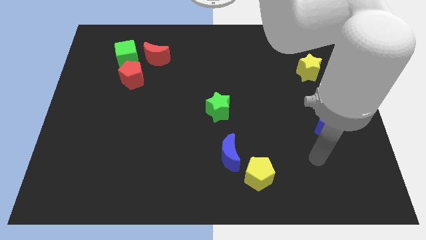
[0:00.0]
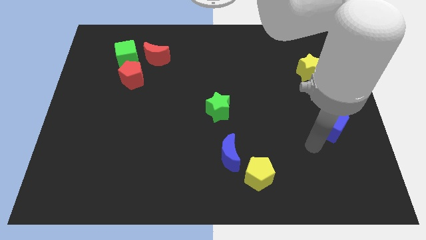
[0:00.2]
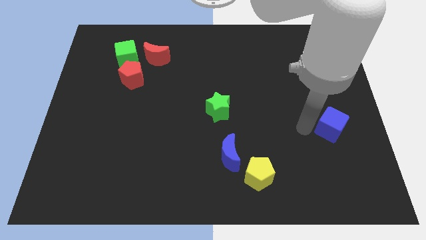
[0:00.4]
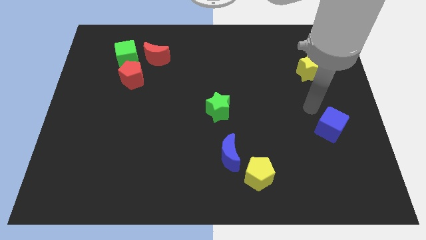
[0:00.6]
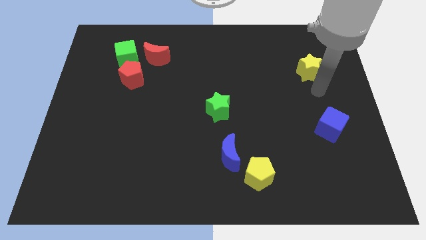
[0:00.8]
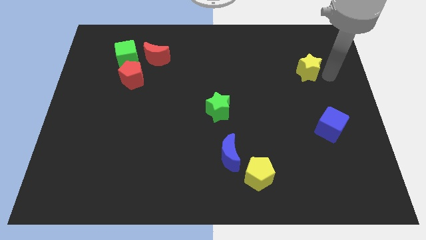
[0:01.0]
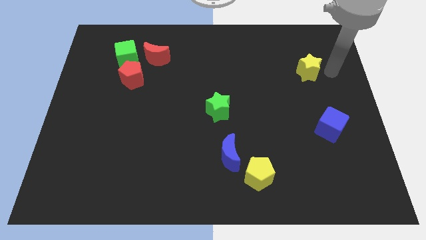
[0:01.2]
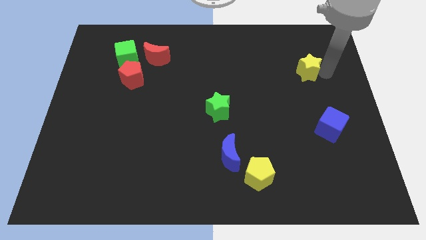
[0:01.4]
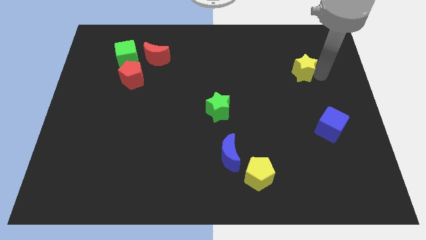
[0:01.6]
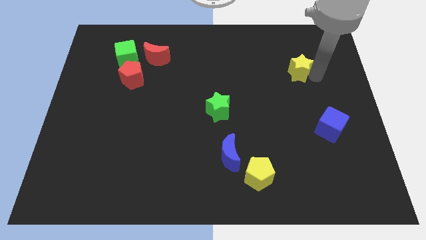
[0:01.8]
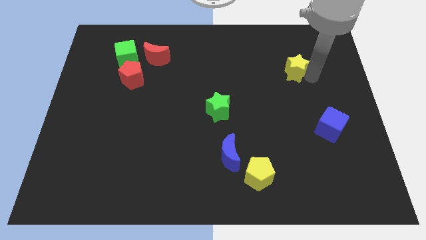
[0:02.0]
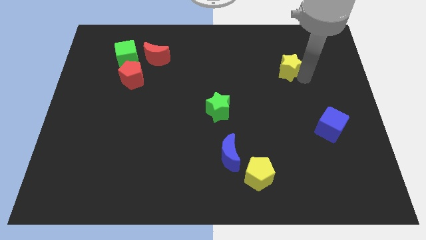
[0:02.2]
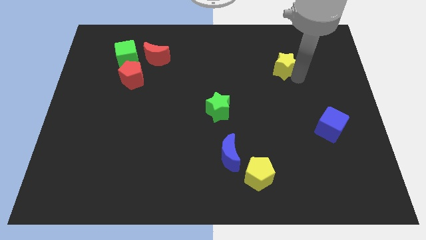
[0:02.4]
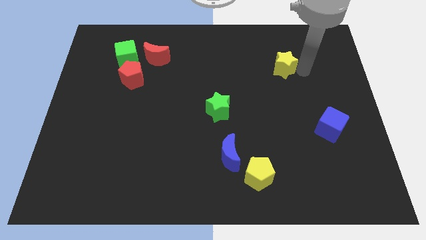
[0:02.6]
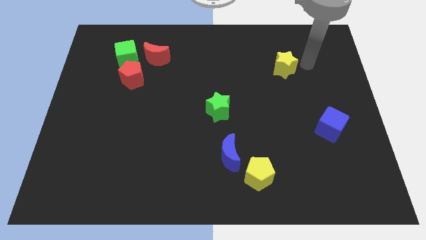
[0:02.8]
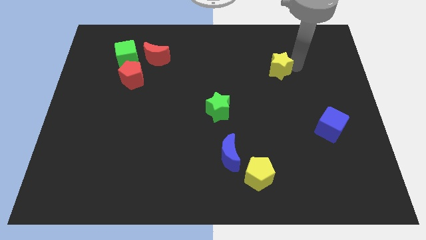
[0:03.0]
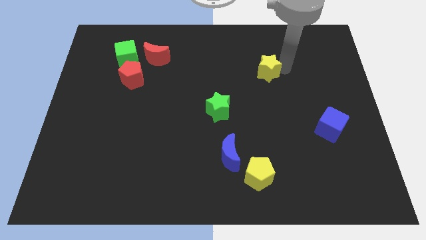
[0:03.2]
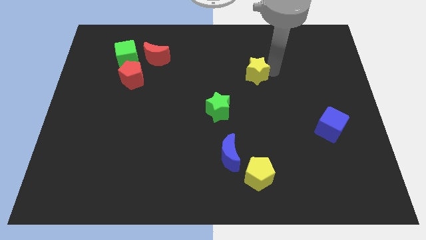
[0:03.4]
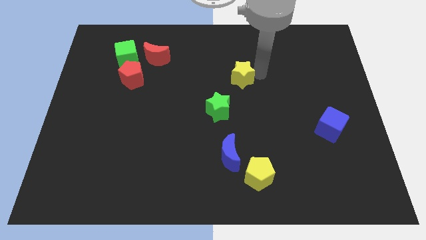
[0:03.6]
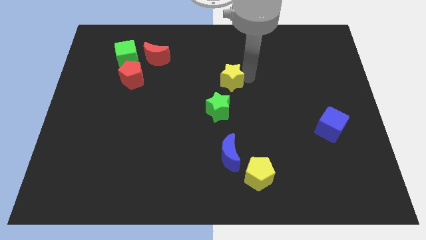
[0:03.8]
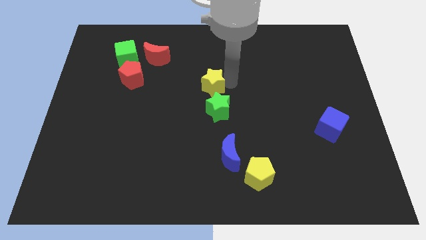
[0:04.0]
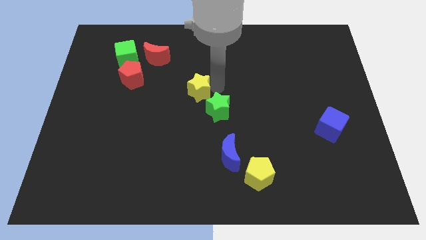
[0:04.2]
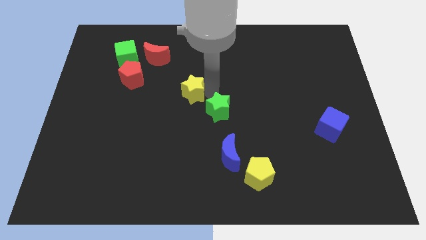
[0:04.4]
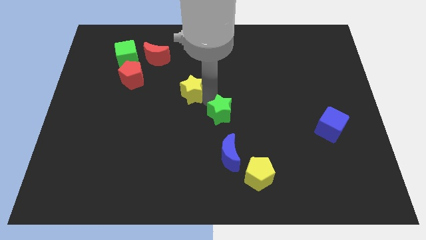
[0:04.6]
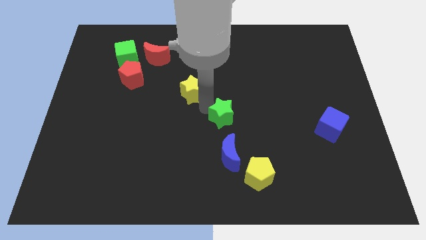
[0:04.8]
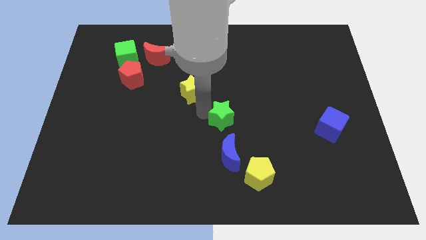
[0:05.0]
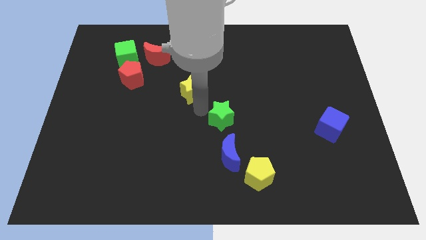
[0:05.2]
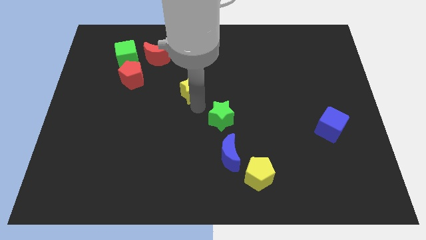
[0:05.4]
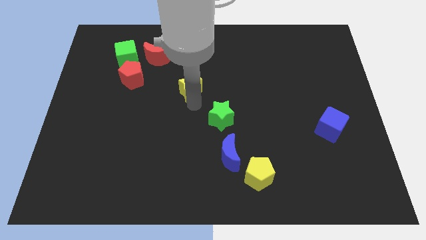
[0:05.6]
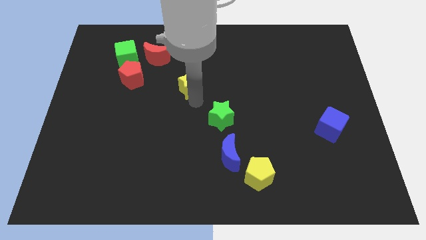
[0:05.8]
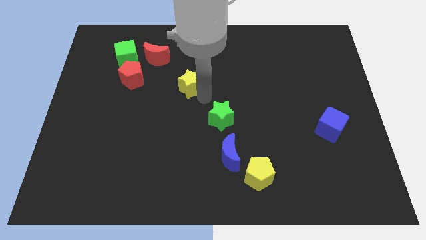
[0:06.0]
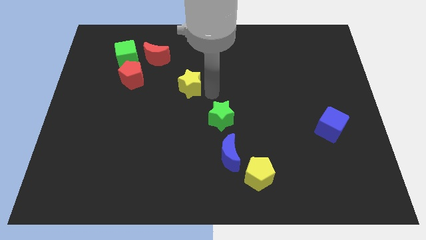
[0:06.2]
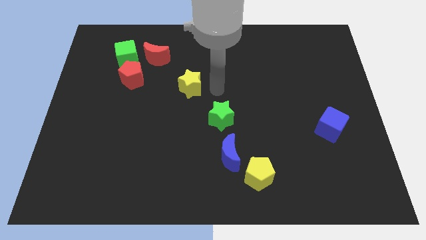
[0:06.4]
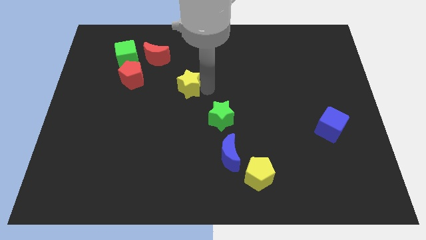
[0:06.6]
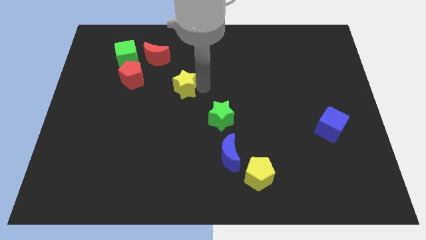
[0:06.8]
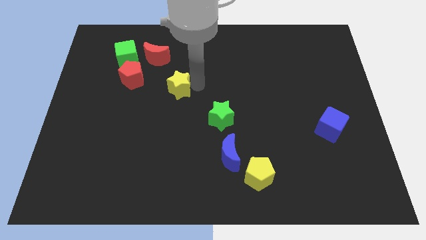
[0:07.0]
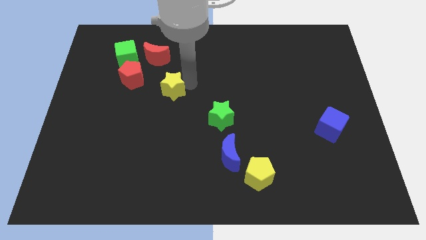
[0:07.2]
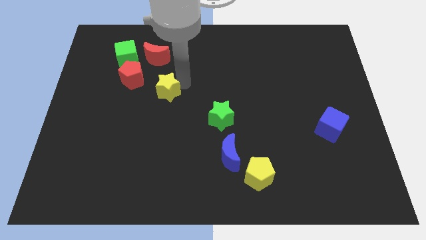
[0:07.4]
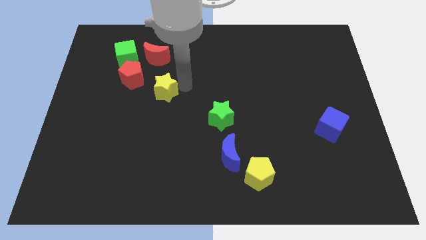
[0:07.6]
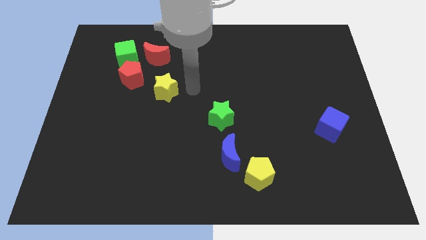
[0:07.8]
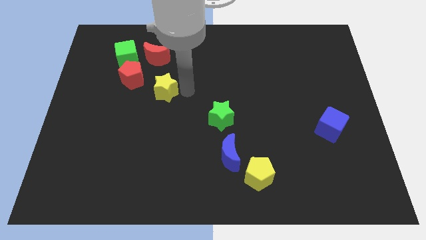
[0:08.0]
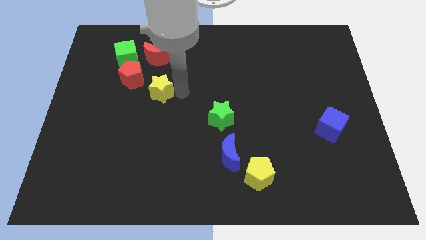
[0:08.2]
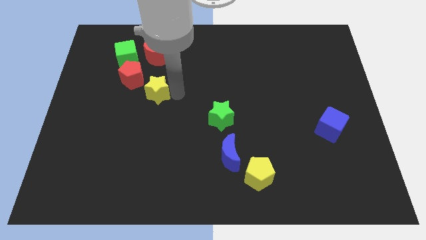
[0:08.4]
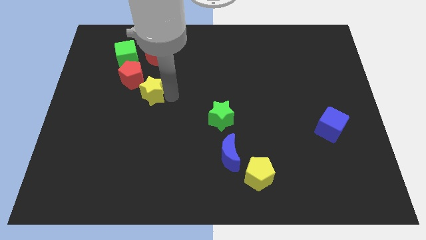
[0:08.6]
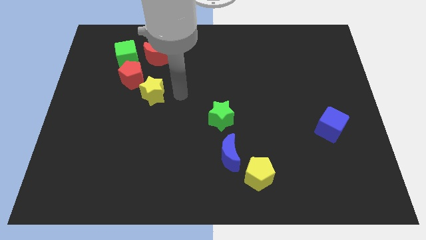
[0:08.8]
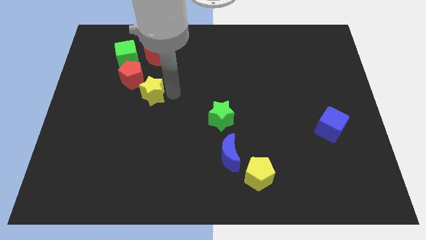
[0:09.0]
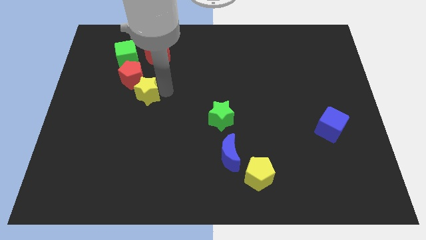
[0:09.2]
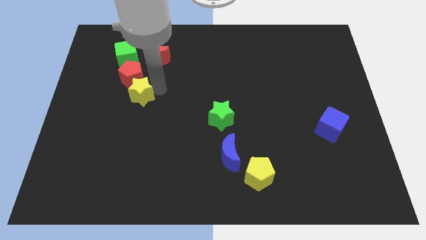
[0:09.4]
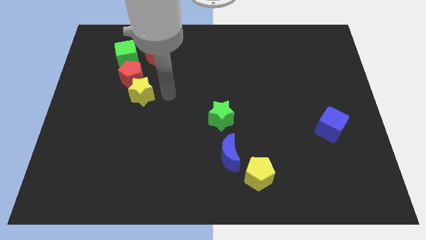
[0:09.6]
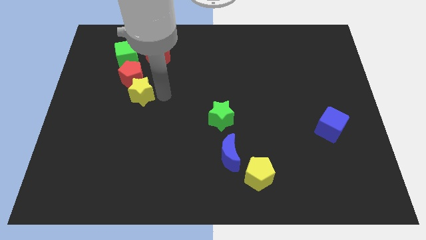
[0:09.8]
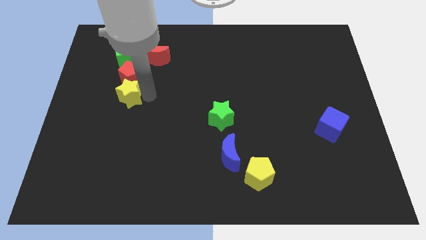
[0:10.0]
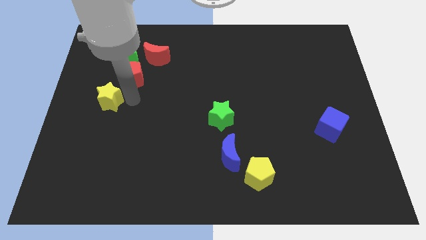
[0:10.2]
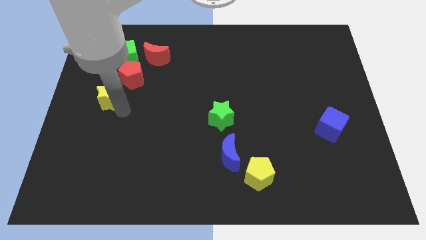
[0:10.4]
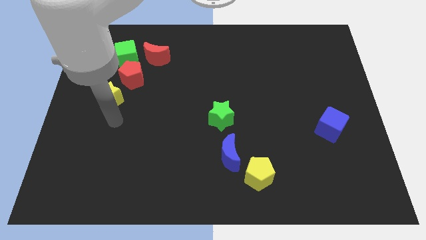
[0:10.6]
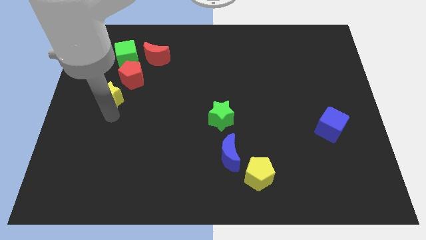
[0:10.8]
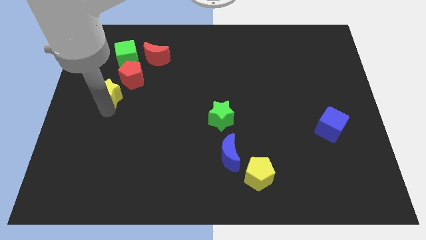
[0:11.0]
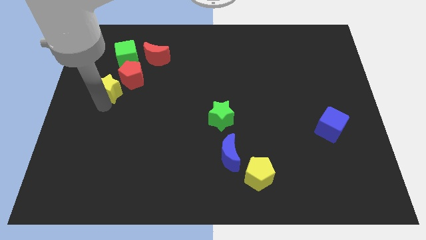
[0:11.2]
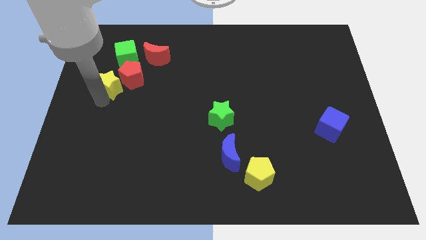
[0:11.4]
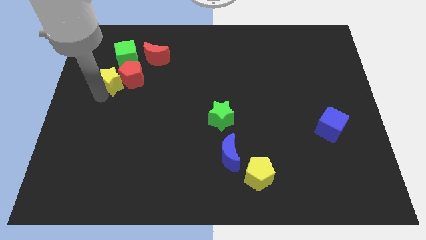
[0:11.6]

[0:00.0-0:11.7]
move the yellow star to the bottom left of the green cube

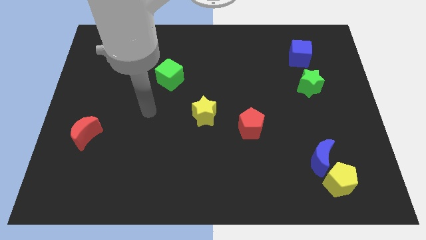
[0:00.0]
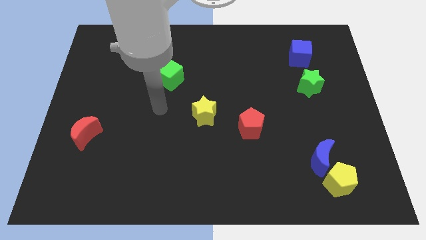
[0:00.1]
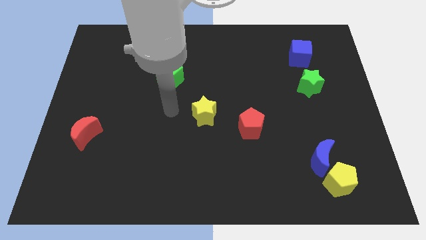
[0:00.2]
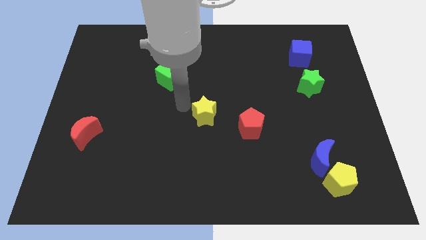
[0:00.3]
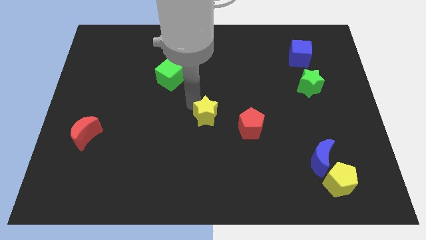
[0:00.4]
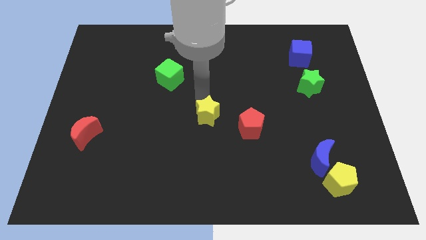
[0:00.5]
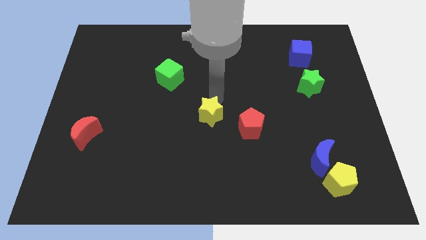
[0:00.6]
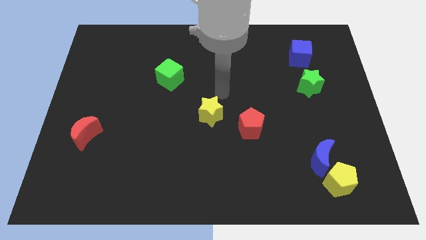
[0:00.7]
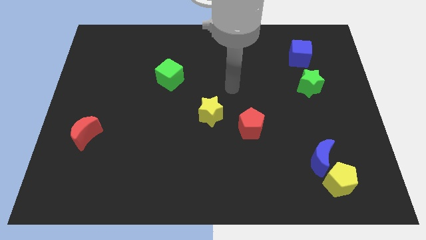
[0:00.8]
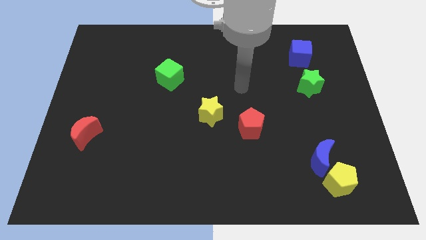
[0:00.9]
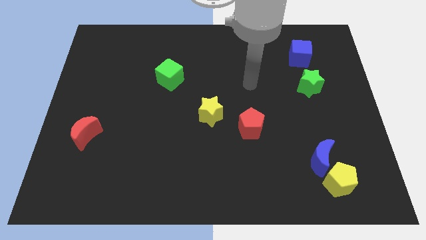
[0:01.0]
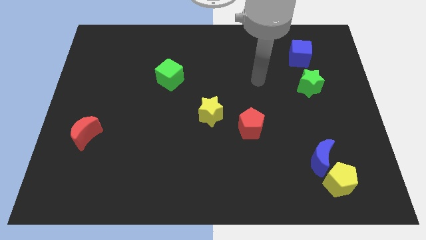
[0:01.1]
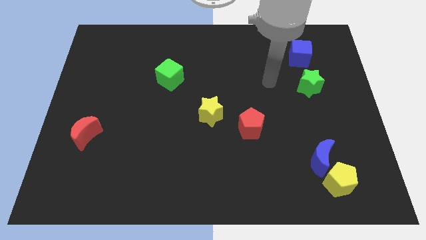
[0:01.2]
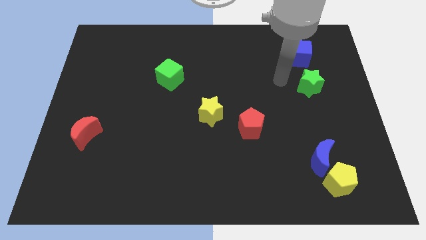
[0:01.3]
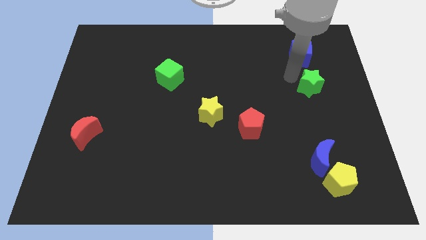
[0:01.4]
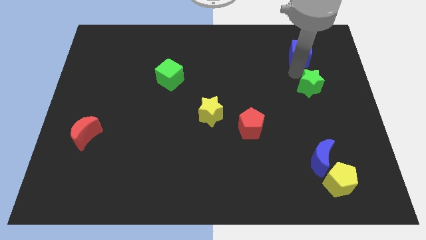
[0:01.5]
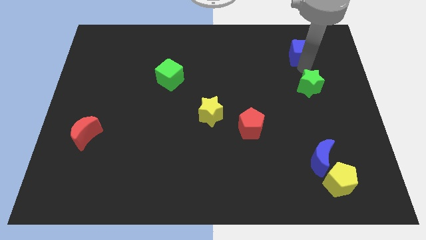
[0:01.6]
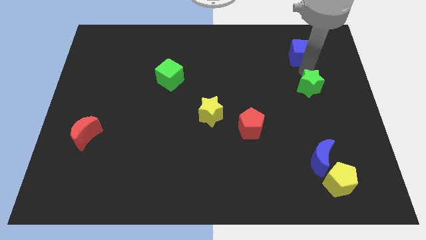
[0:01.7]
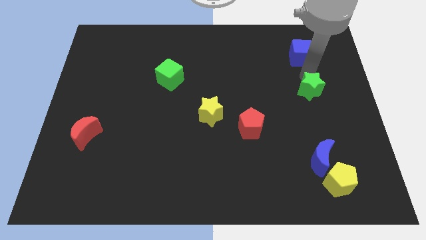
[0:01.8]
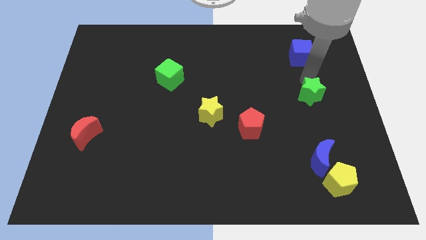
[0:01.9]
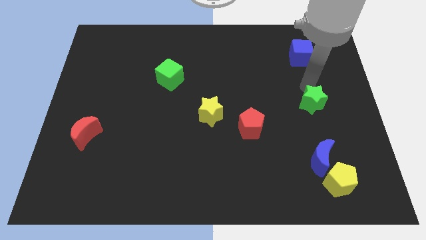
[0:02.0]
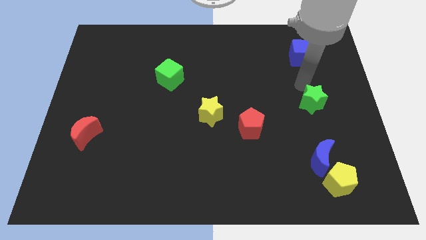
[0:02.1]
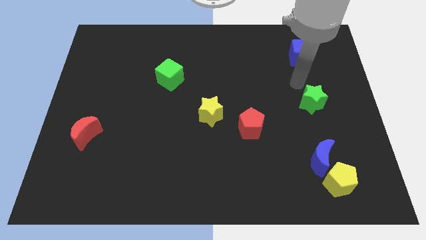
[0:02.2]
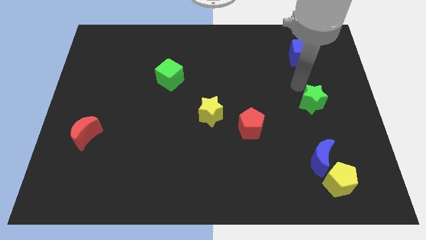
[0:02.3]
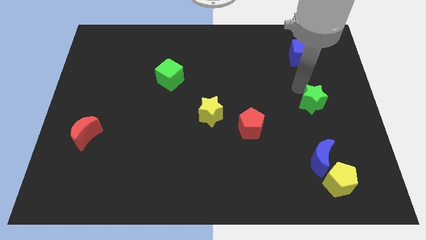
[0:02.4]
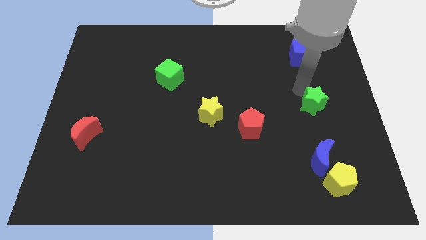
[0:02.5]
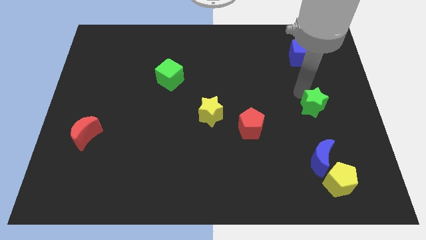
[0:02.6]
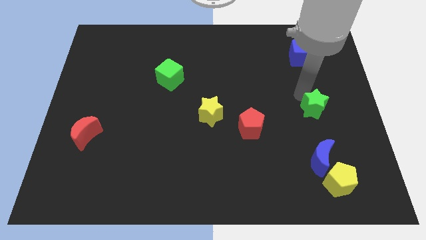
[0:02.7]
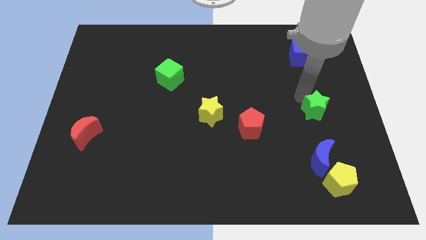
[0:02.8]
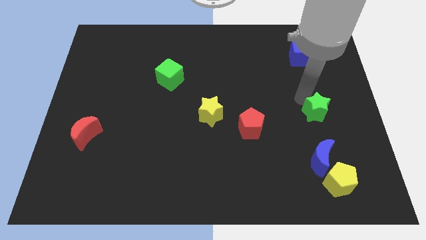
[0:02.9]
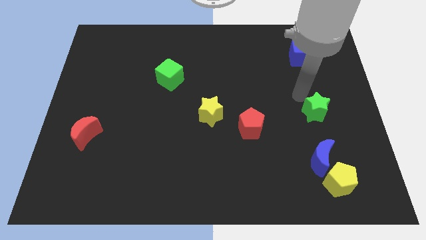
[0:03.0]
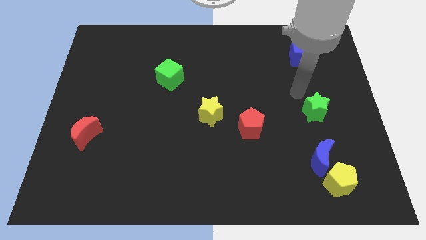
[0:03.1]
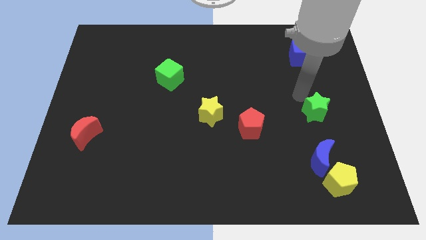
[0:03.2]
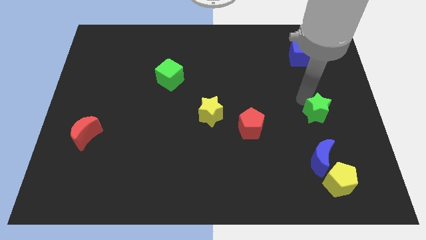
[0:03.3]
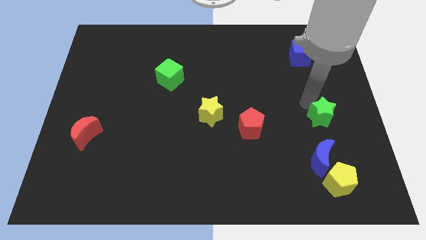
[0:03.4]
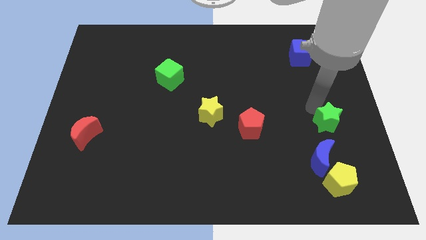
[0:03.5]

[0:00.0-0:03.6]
push the green star to the top right side of the blue moon
